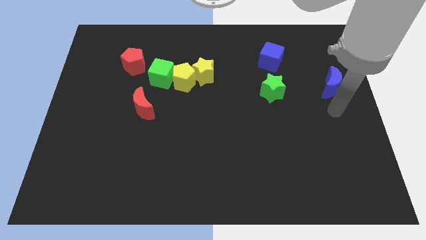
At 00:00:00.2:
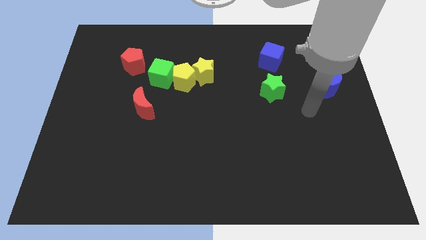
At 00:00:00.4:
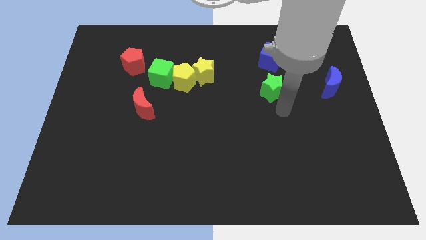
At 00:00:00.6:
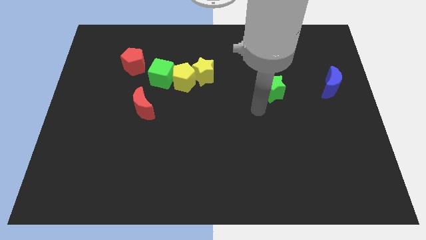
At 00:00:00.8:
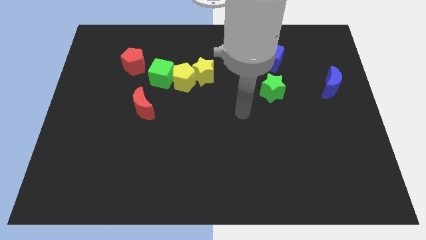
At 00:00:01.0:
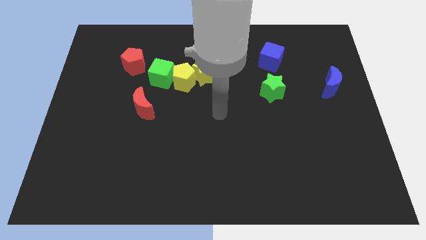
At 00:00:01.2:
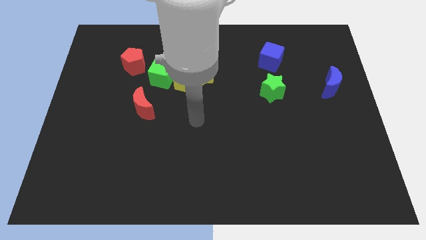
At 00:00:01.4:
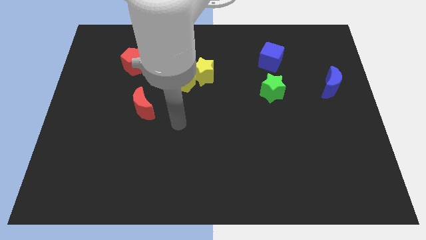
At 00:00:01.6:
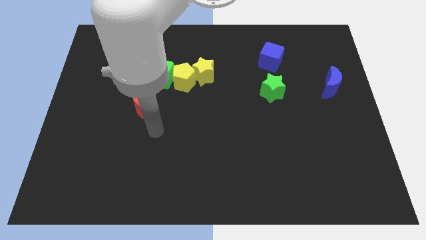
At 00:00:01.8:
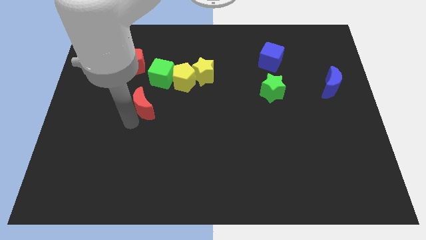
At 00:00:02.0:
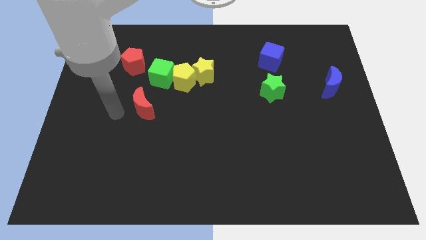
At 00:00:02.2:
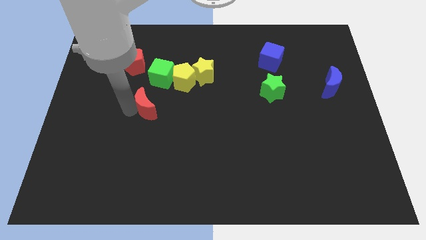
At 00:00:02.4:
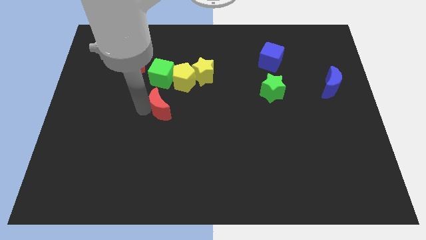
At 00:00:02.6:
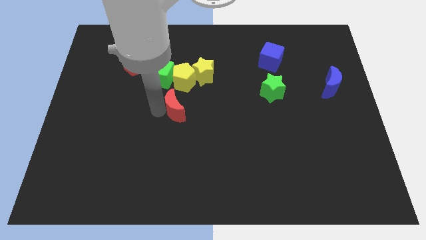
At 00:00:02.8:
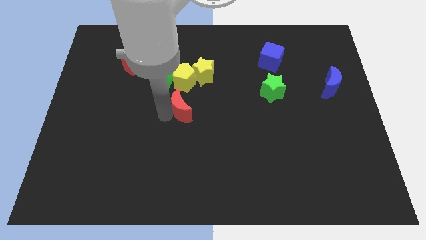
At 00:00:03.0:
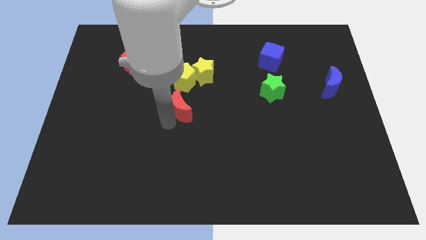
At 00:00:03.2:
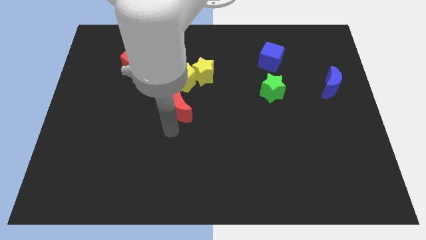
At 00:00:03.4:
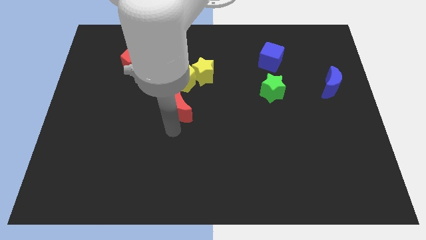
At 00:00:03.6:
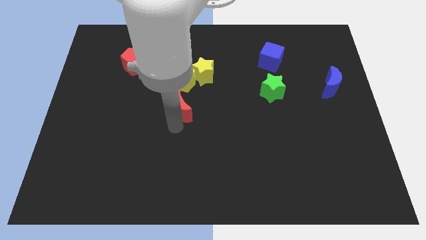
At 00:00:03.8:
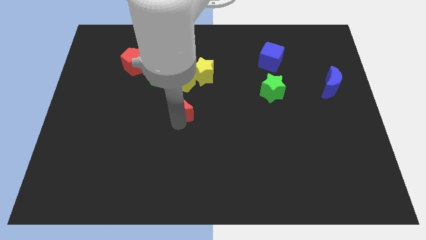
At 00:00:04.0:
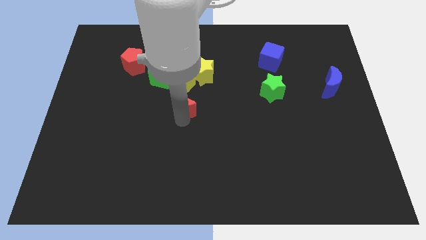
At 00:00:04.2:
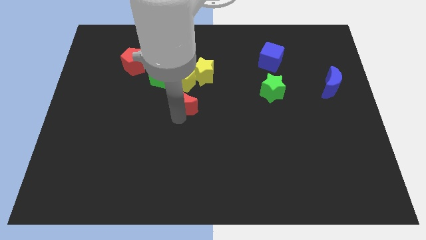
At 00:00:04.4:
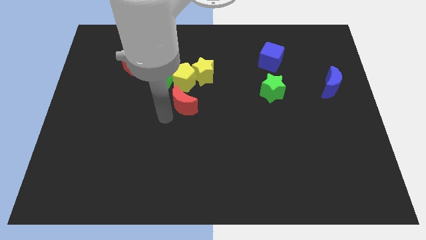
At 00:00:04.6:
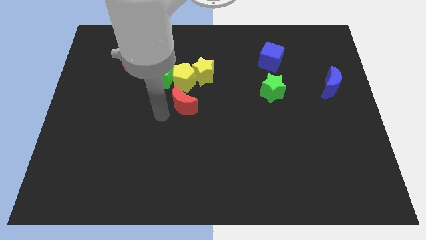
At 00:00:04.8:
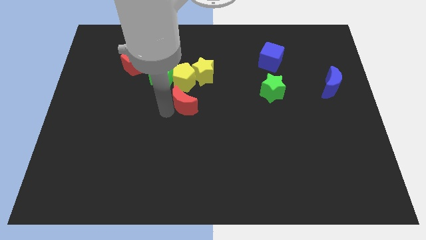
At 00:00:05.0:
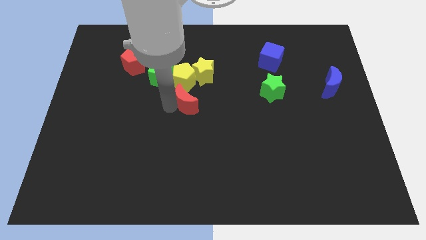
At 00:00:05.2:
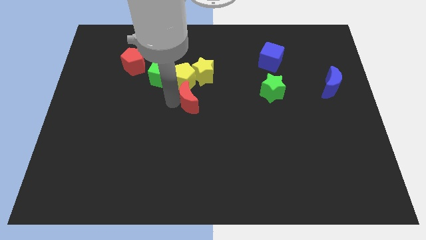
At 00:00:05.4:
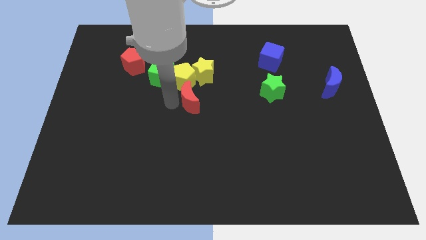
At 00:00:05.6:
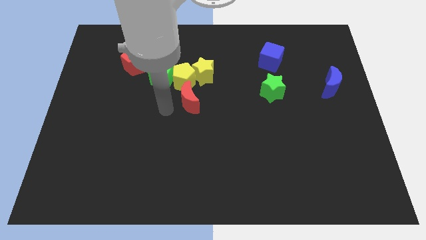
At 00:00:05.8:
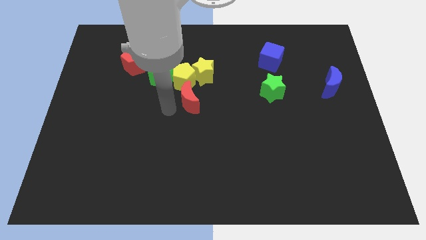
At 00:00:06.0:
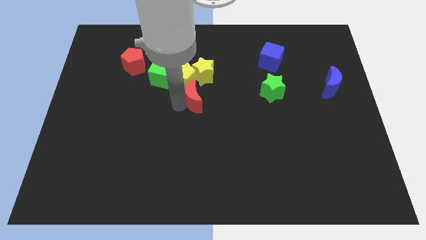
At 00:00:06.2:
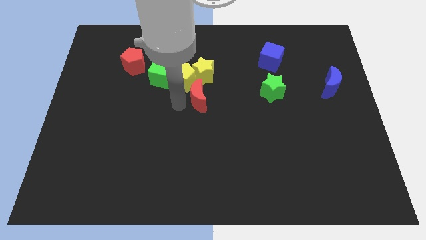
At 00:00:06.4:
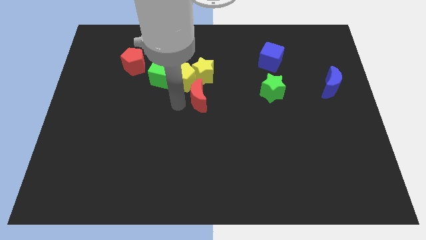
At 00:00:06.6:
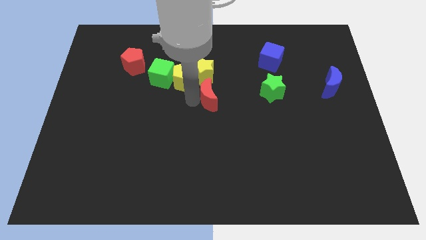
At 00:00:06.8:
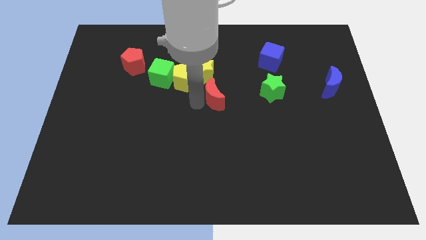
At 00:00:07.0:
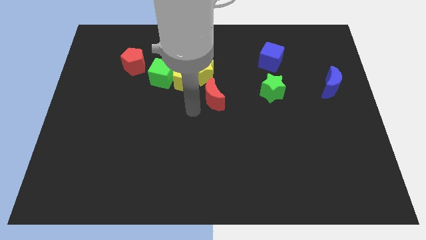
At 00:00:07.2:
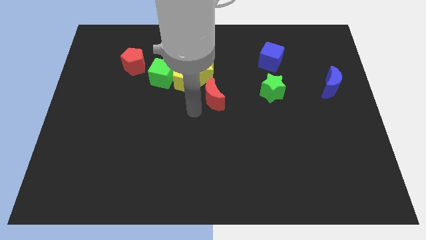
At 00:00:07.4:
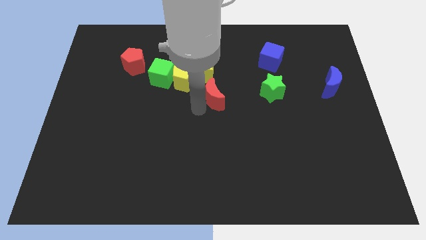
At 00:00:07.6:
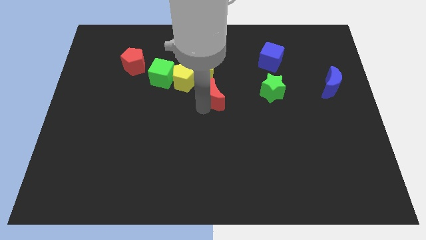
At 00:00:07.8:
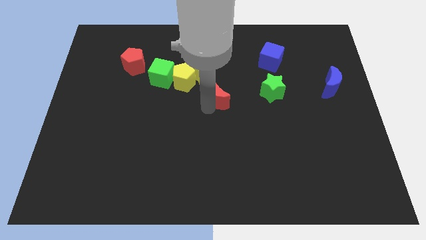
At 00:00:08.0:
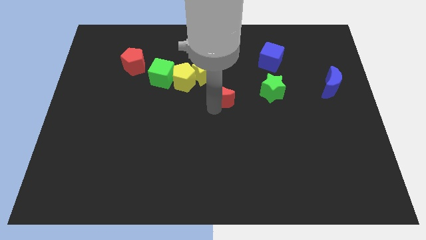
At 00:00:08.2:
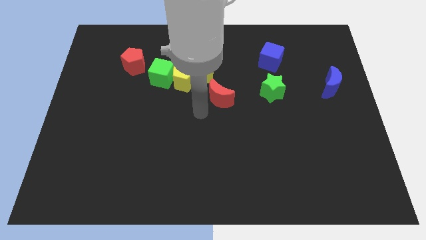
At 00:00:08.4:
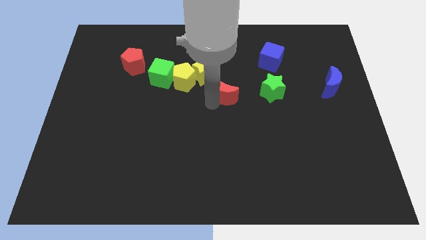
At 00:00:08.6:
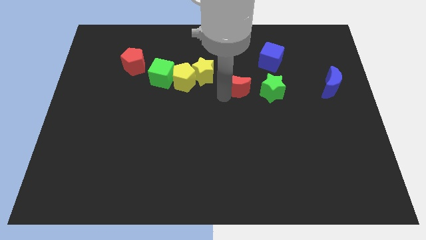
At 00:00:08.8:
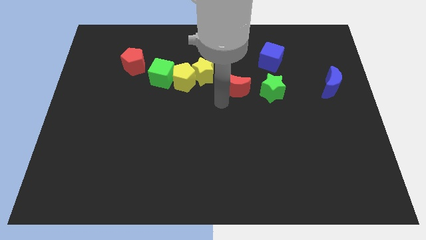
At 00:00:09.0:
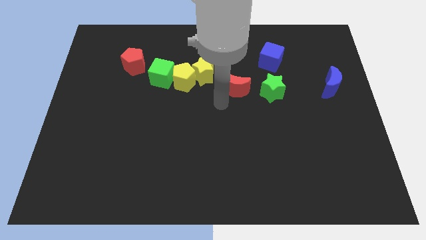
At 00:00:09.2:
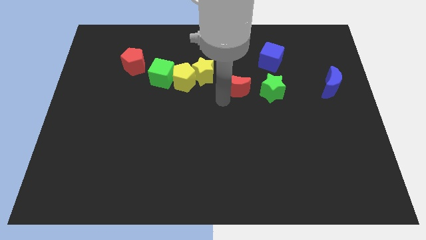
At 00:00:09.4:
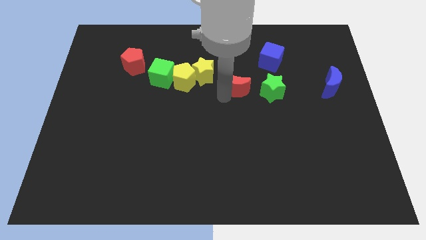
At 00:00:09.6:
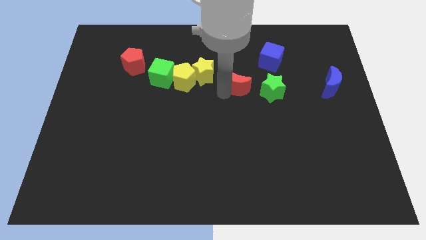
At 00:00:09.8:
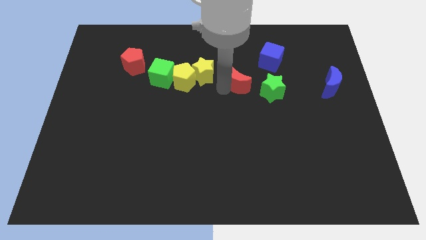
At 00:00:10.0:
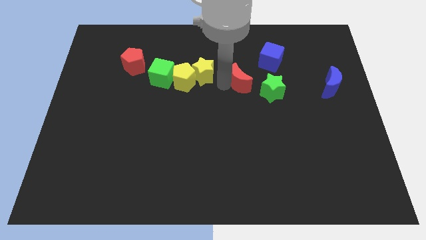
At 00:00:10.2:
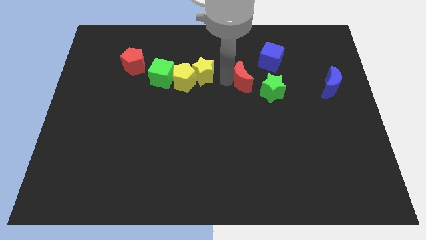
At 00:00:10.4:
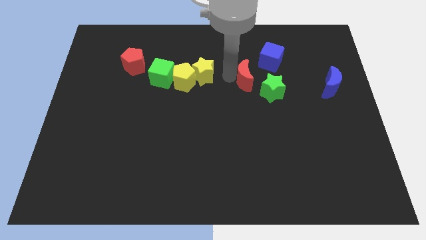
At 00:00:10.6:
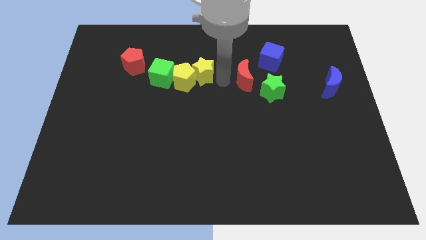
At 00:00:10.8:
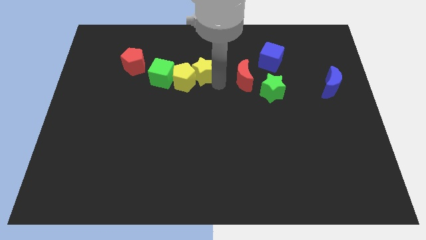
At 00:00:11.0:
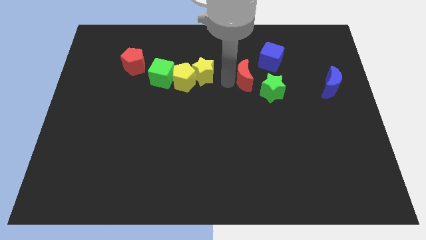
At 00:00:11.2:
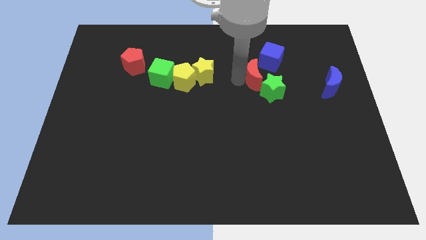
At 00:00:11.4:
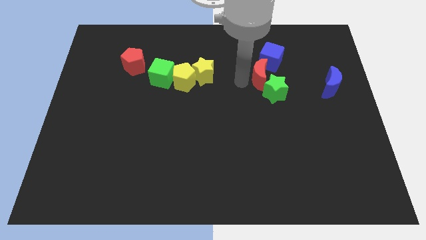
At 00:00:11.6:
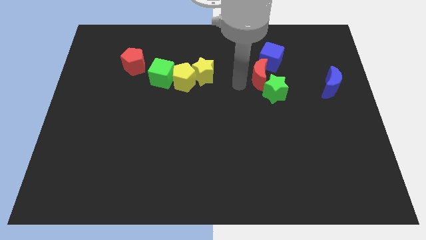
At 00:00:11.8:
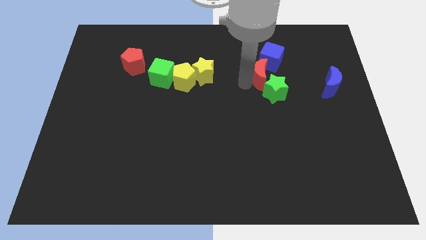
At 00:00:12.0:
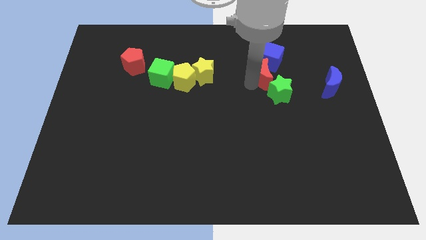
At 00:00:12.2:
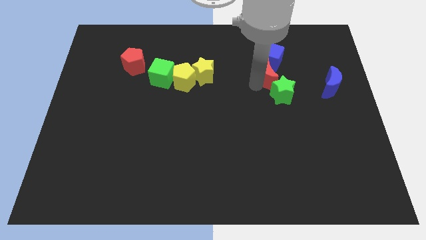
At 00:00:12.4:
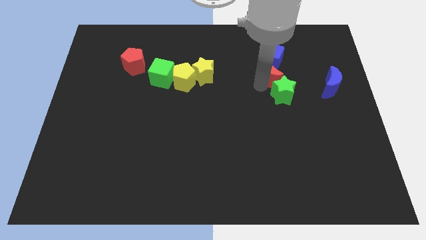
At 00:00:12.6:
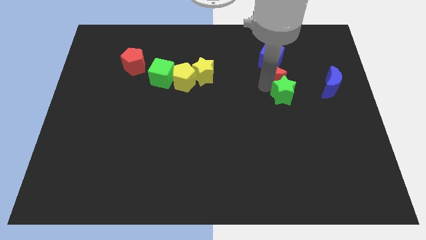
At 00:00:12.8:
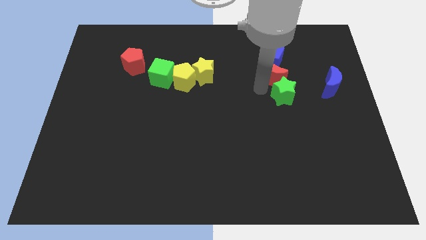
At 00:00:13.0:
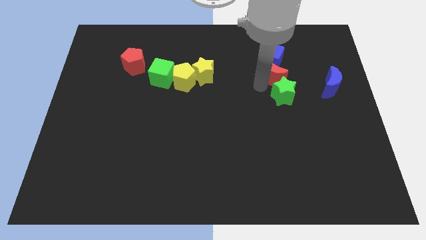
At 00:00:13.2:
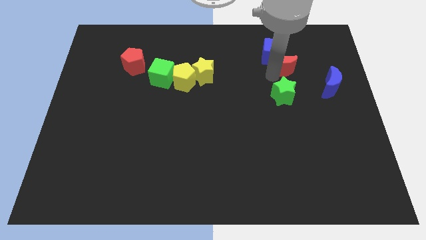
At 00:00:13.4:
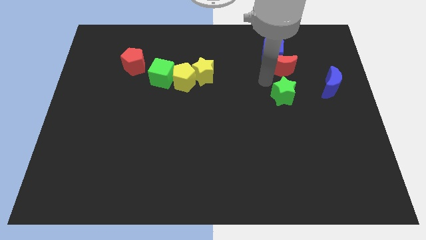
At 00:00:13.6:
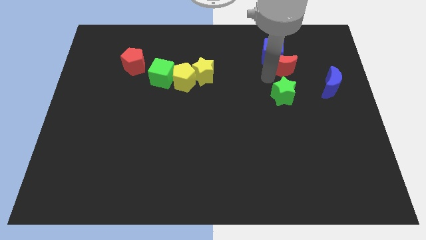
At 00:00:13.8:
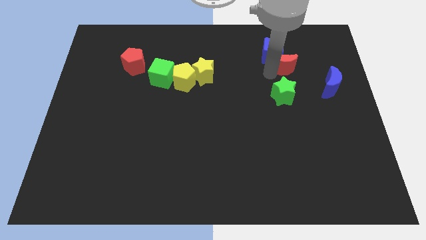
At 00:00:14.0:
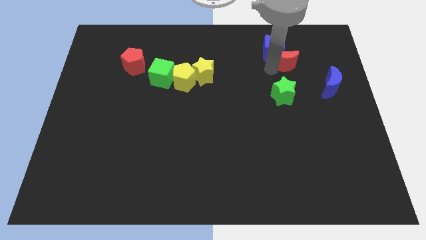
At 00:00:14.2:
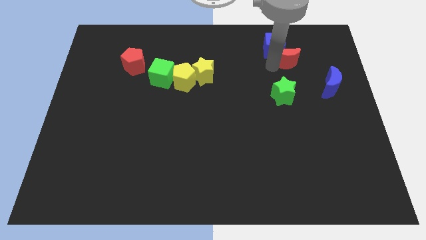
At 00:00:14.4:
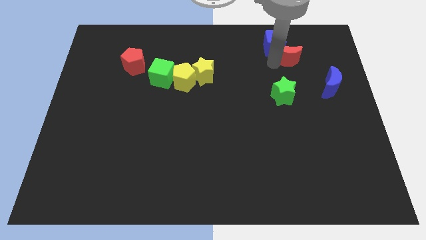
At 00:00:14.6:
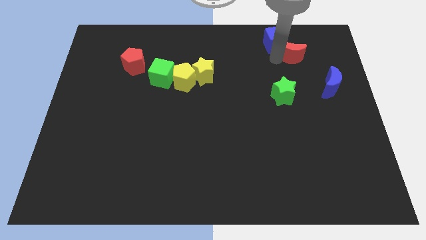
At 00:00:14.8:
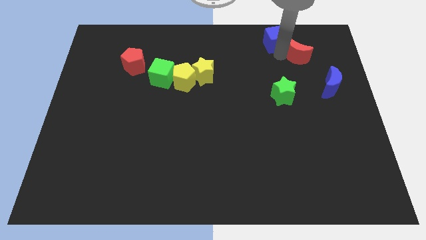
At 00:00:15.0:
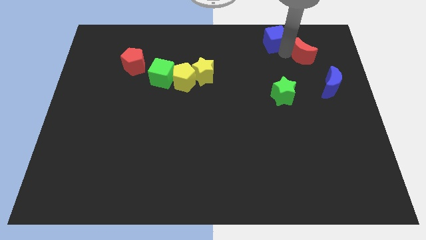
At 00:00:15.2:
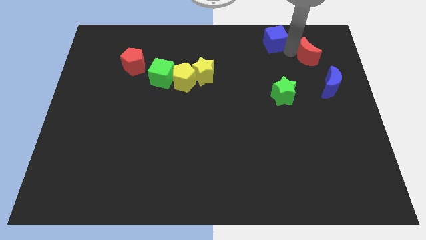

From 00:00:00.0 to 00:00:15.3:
slide the red moon to the top of the blue moon
